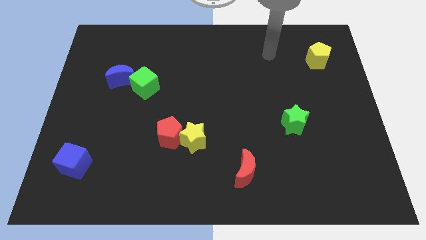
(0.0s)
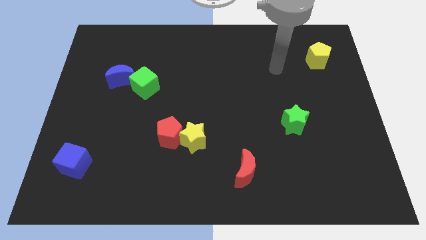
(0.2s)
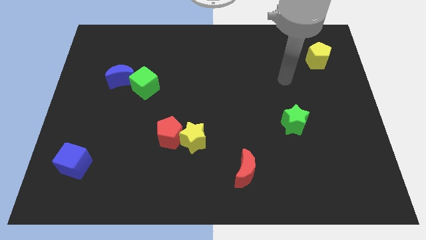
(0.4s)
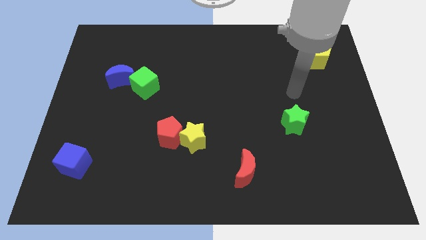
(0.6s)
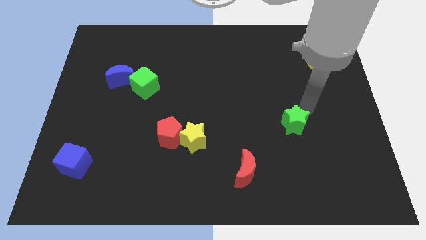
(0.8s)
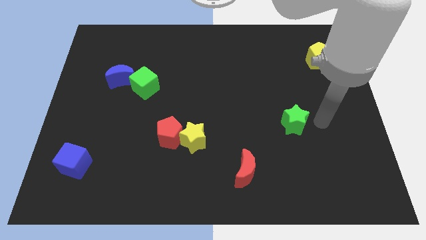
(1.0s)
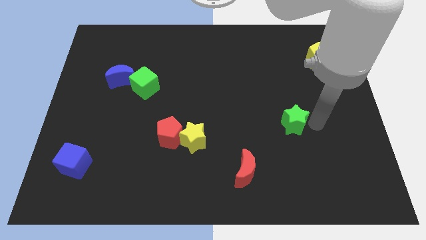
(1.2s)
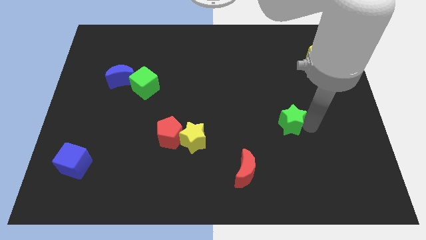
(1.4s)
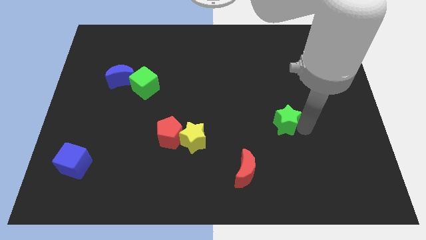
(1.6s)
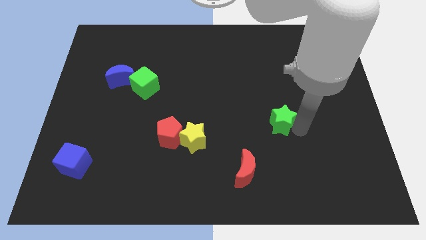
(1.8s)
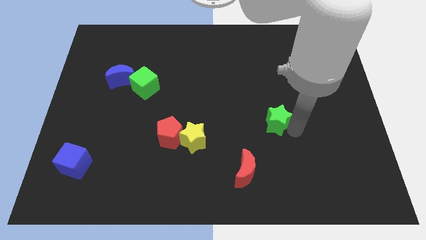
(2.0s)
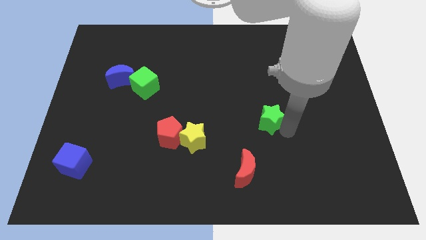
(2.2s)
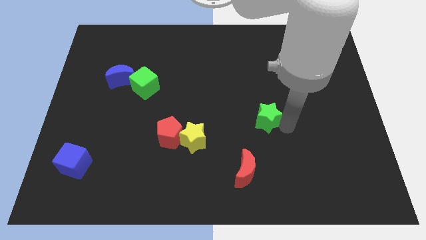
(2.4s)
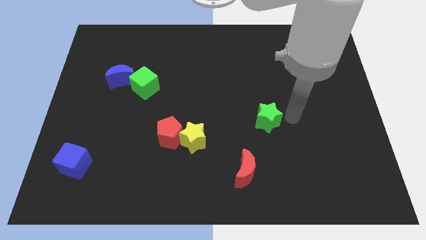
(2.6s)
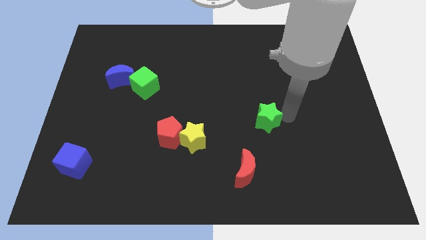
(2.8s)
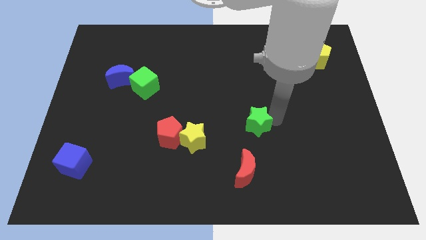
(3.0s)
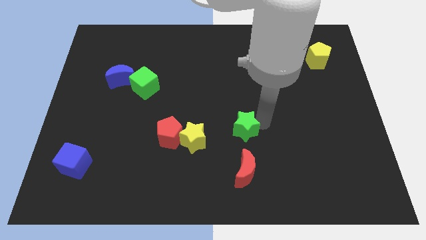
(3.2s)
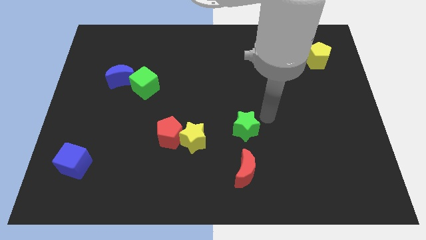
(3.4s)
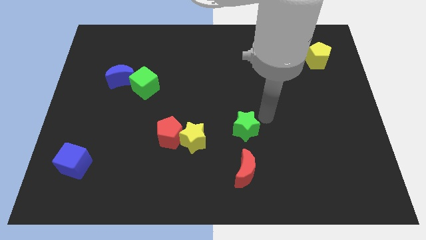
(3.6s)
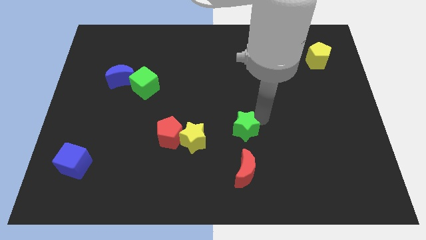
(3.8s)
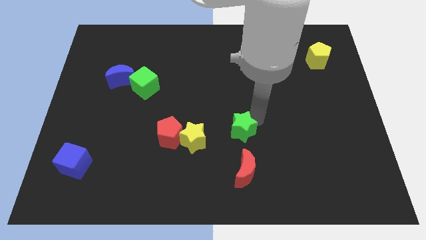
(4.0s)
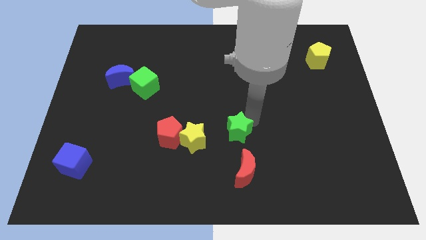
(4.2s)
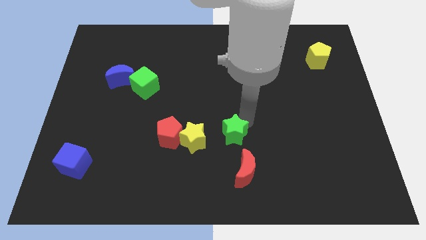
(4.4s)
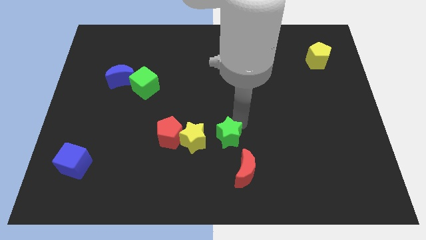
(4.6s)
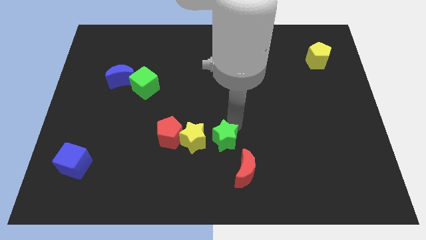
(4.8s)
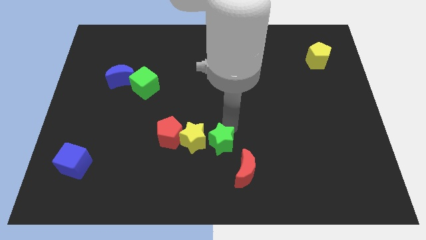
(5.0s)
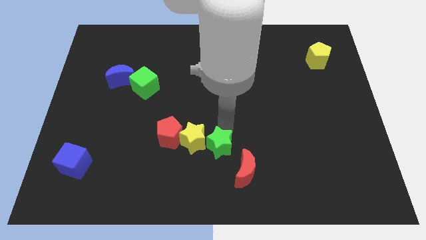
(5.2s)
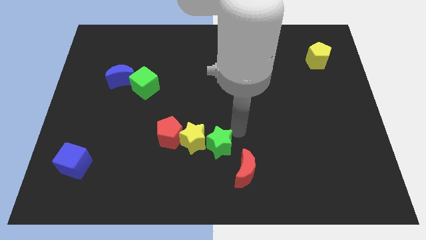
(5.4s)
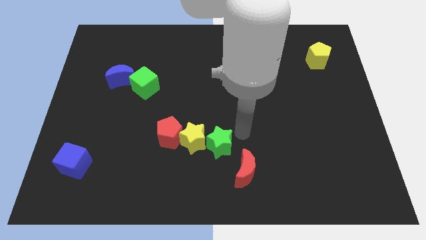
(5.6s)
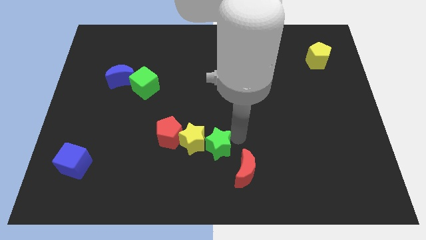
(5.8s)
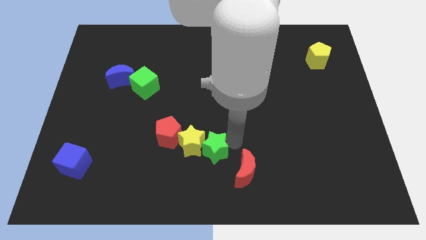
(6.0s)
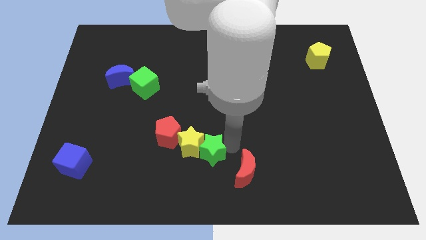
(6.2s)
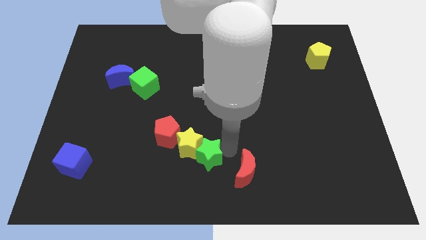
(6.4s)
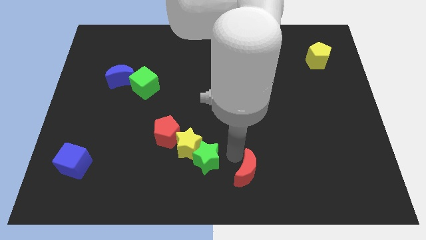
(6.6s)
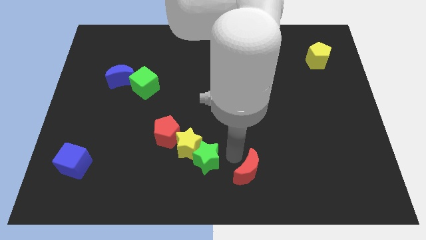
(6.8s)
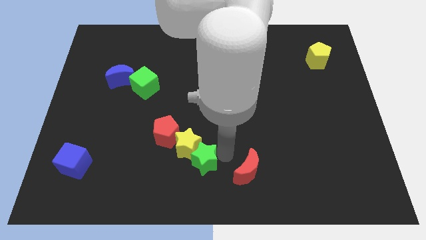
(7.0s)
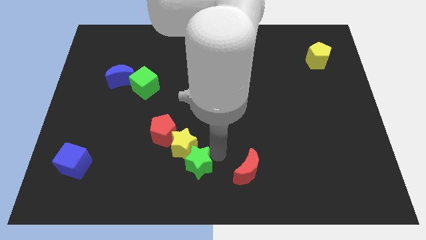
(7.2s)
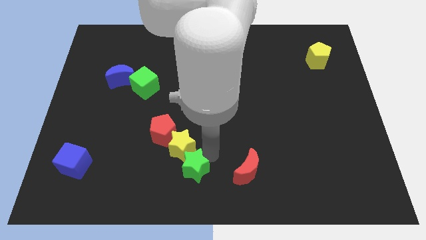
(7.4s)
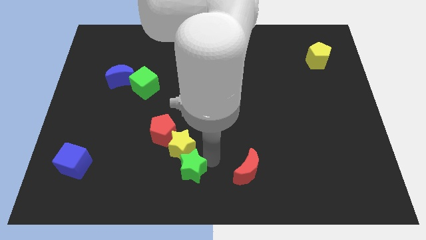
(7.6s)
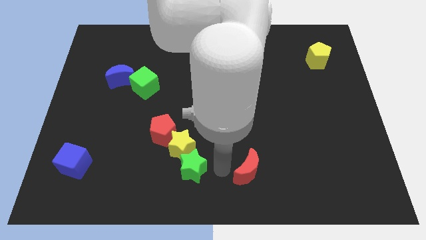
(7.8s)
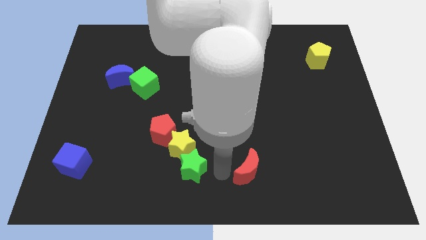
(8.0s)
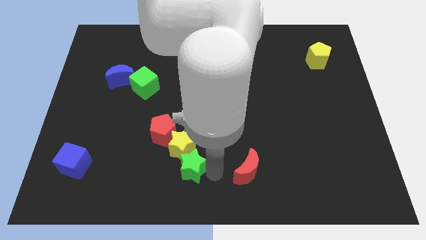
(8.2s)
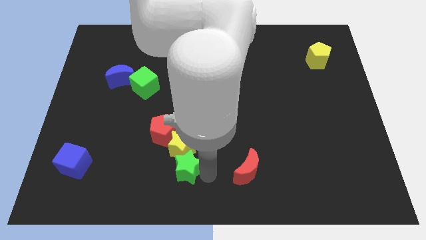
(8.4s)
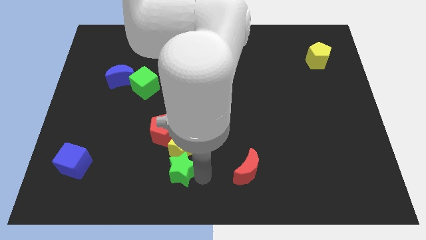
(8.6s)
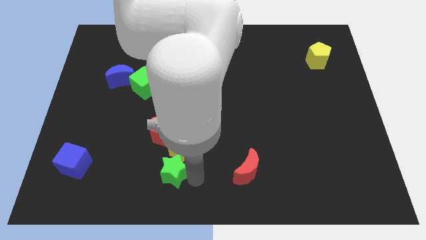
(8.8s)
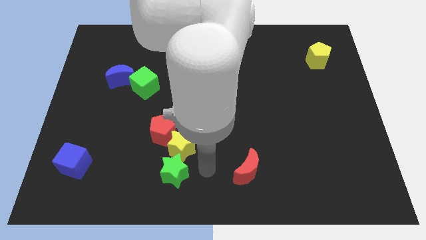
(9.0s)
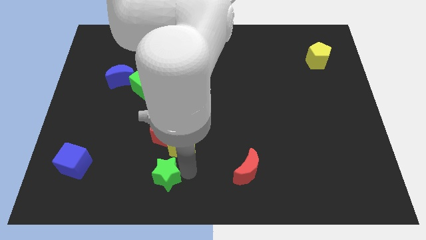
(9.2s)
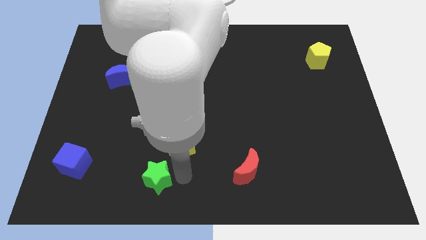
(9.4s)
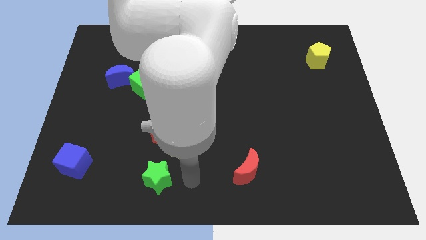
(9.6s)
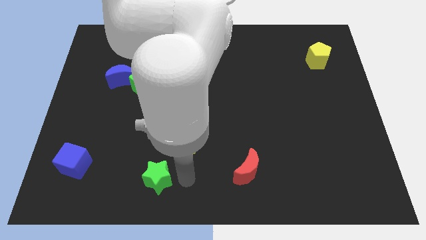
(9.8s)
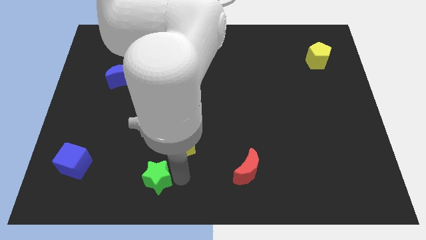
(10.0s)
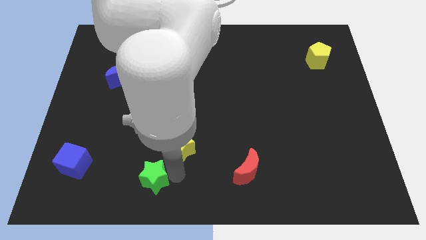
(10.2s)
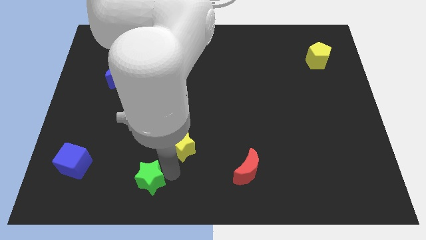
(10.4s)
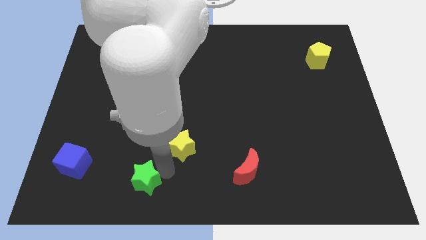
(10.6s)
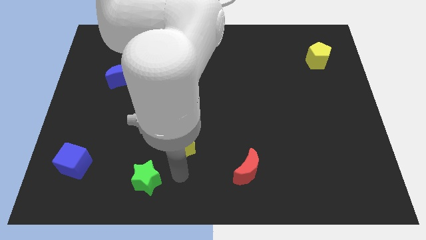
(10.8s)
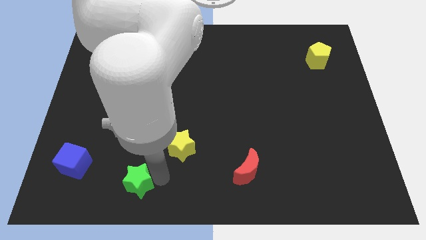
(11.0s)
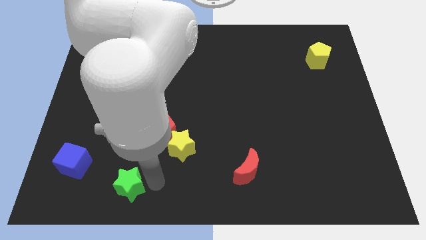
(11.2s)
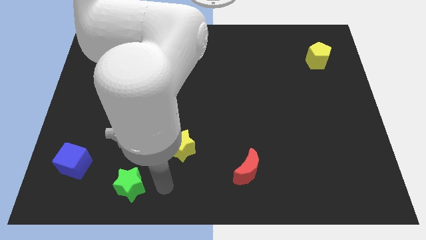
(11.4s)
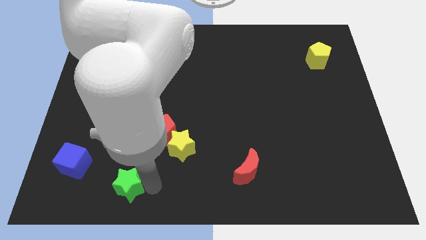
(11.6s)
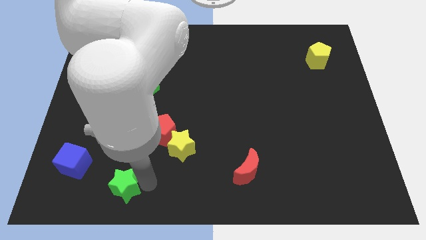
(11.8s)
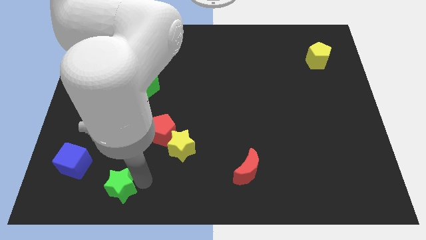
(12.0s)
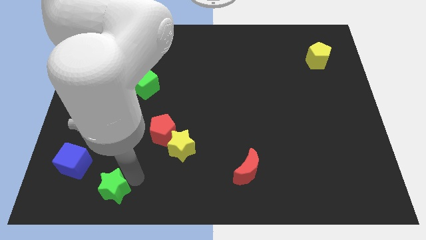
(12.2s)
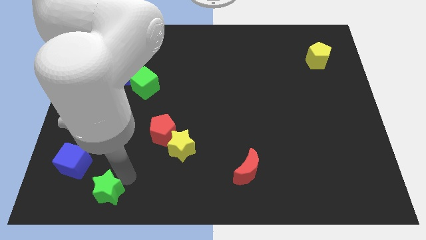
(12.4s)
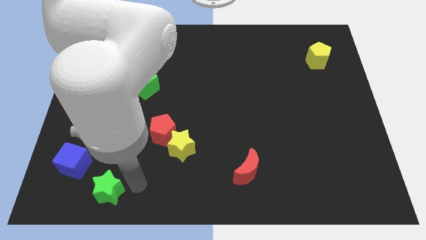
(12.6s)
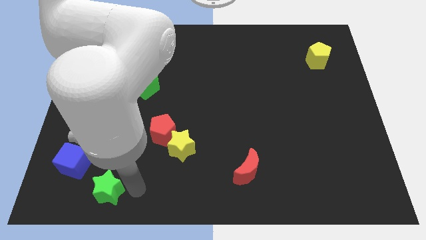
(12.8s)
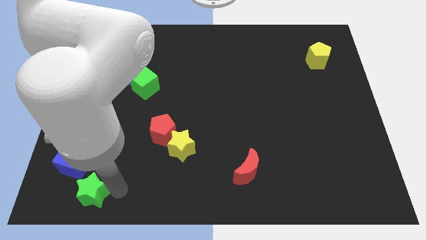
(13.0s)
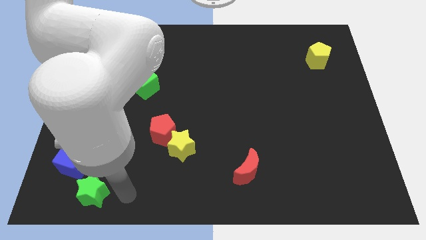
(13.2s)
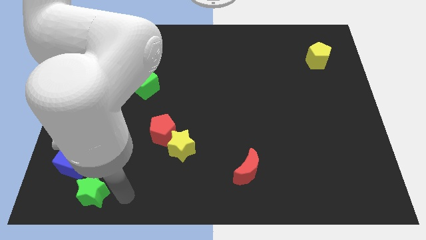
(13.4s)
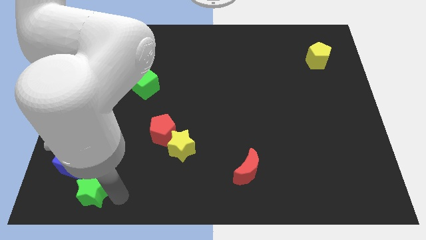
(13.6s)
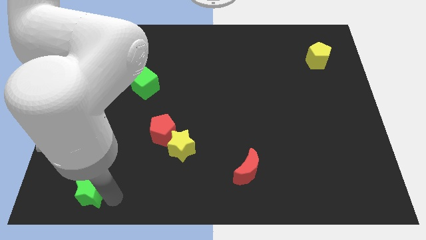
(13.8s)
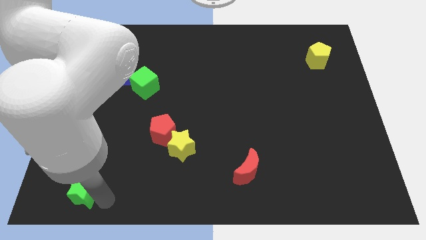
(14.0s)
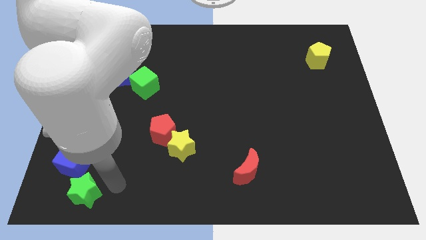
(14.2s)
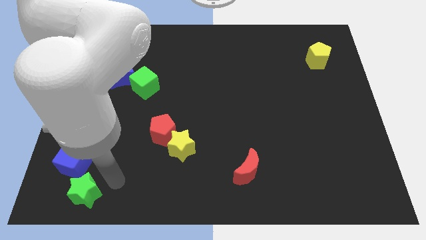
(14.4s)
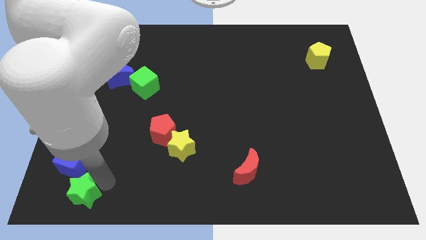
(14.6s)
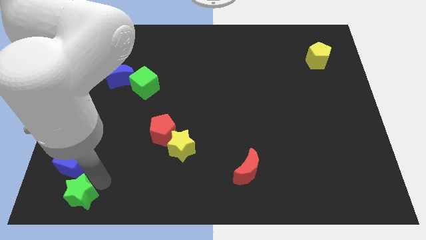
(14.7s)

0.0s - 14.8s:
put the green star to the bottom left
